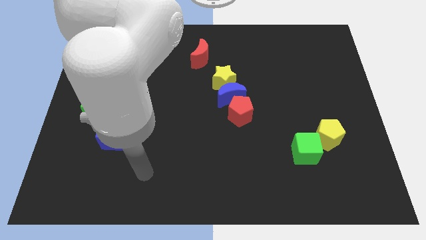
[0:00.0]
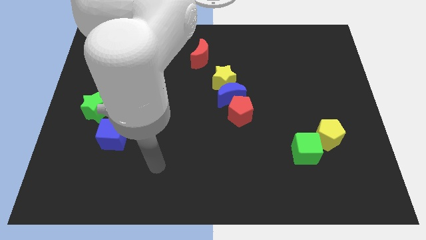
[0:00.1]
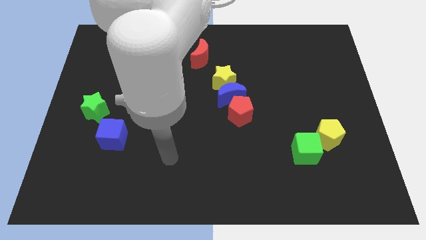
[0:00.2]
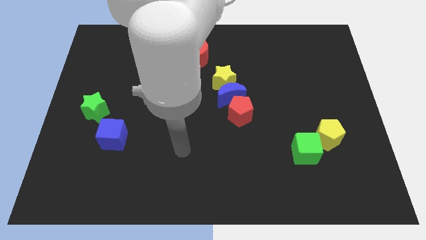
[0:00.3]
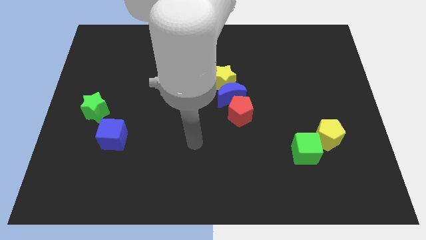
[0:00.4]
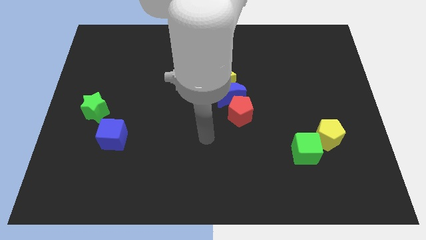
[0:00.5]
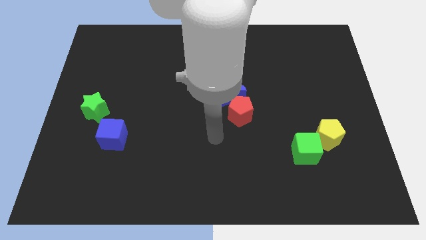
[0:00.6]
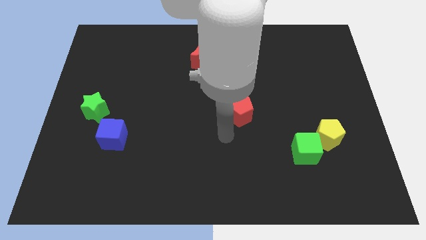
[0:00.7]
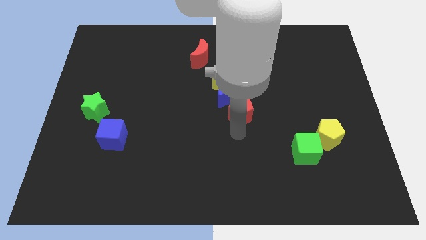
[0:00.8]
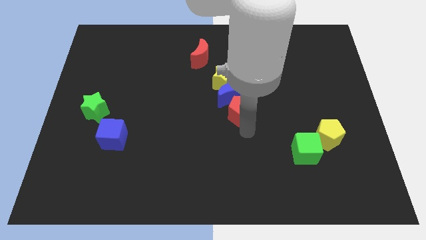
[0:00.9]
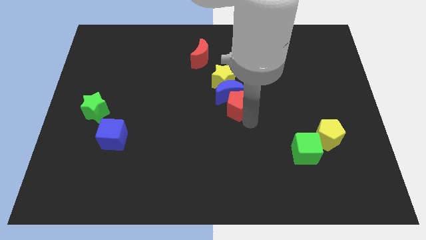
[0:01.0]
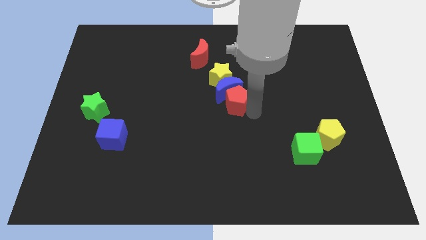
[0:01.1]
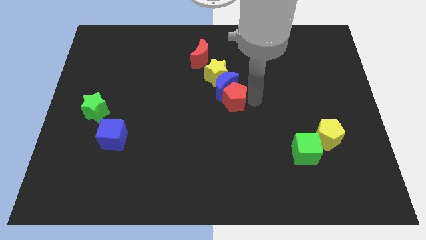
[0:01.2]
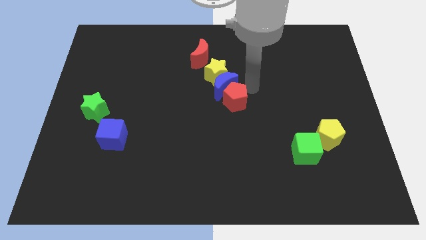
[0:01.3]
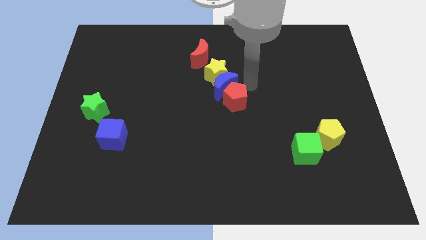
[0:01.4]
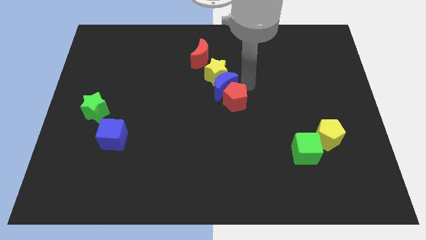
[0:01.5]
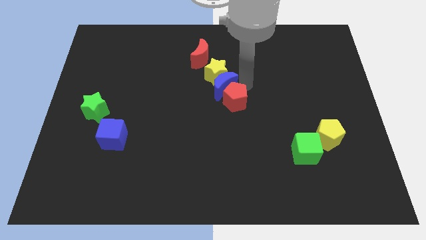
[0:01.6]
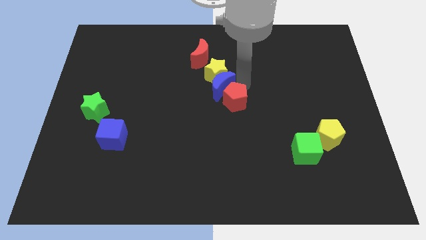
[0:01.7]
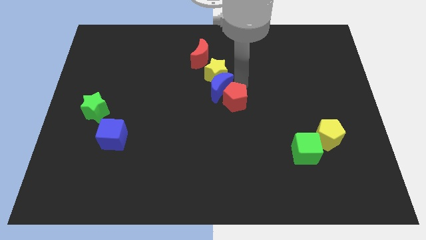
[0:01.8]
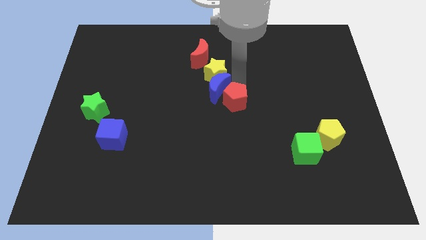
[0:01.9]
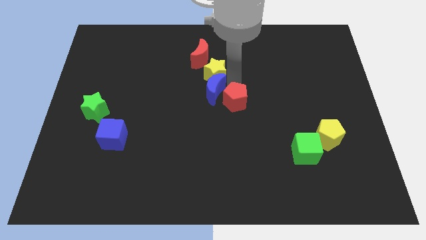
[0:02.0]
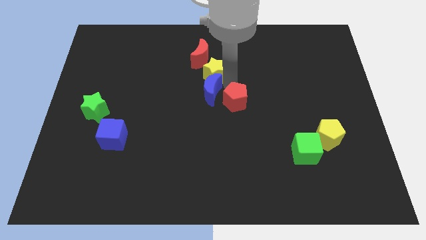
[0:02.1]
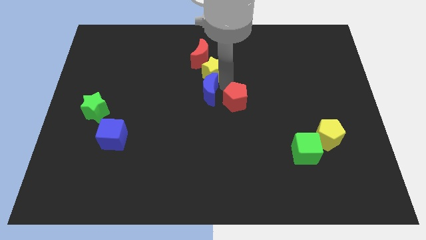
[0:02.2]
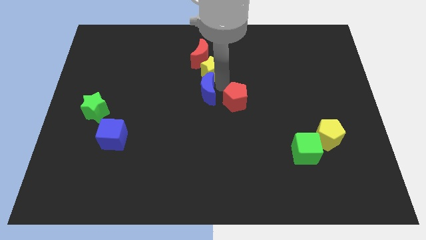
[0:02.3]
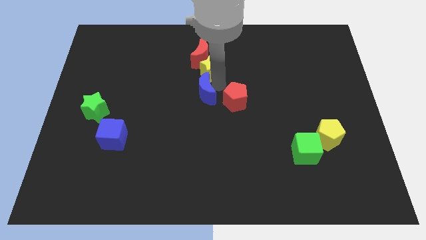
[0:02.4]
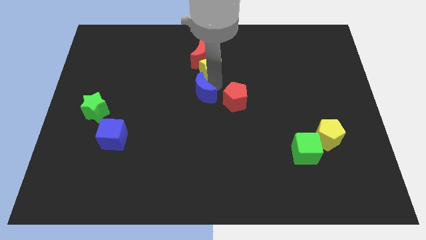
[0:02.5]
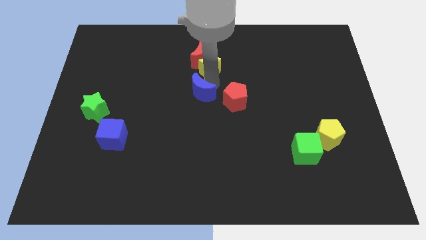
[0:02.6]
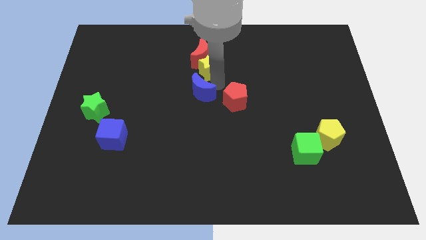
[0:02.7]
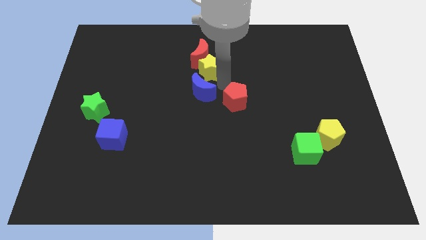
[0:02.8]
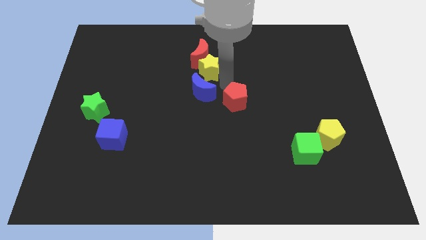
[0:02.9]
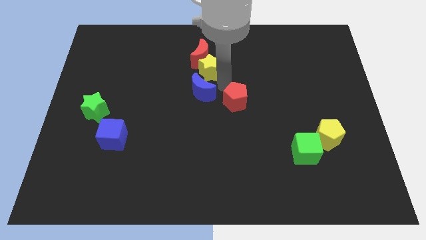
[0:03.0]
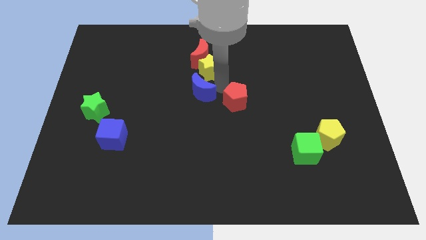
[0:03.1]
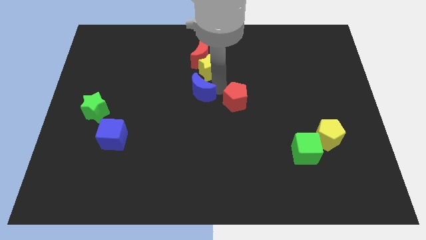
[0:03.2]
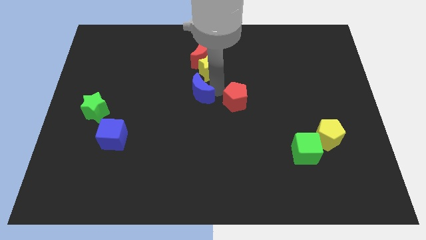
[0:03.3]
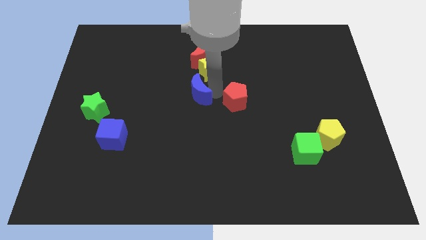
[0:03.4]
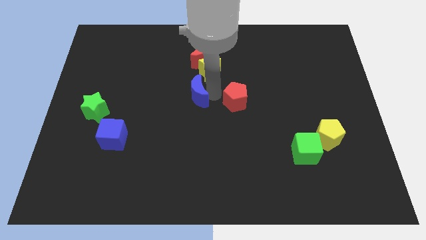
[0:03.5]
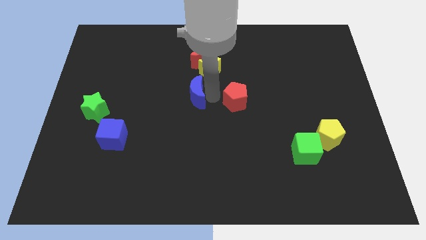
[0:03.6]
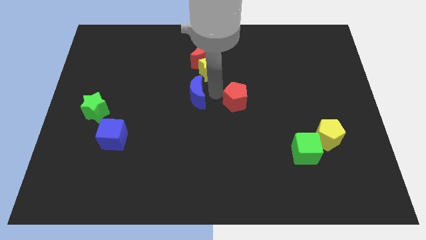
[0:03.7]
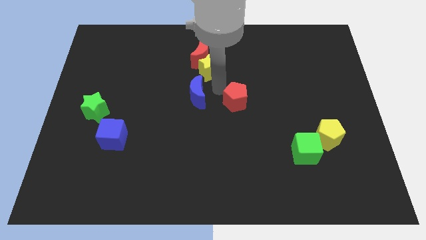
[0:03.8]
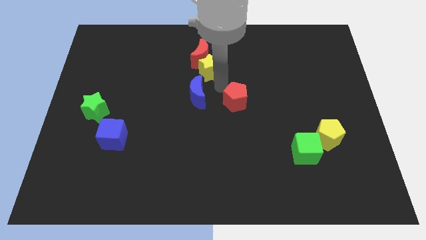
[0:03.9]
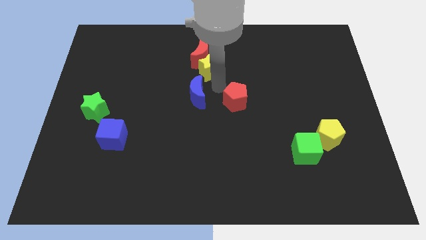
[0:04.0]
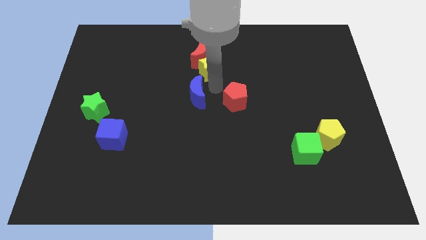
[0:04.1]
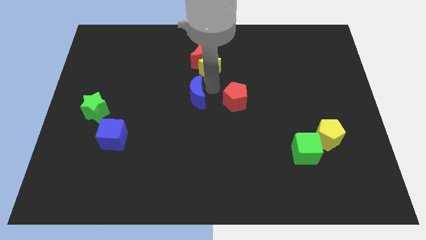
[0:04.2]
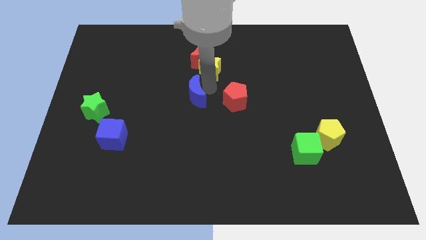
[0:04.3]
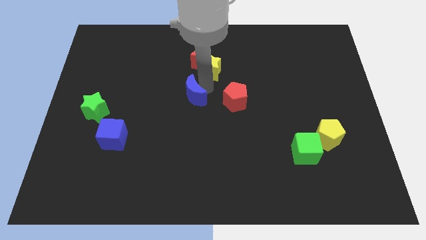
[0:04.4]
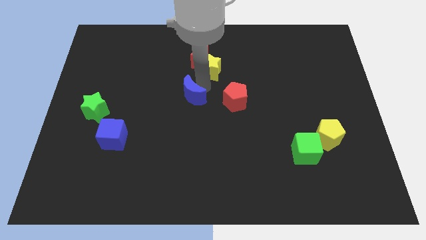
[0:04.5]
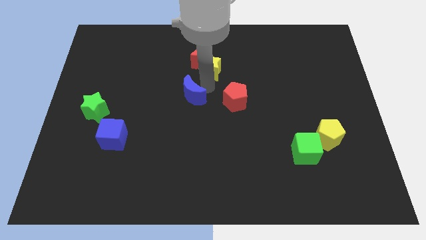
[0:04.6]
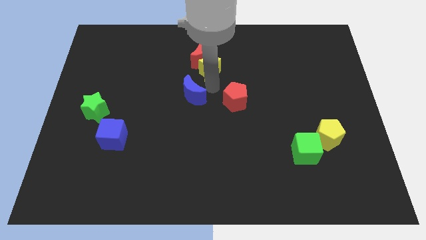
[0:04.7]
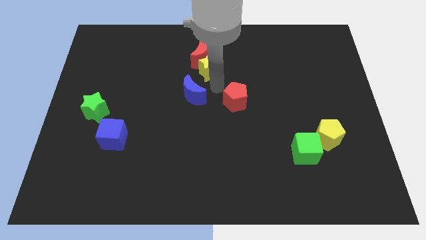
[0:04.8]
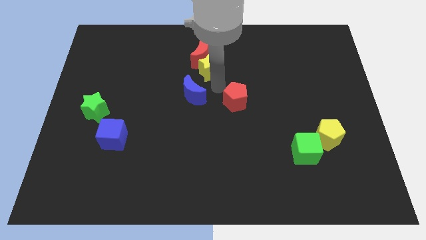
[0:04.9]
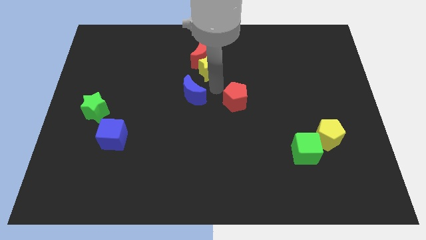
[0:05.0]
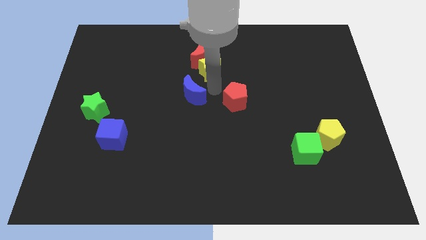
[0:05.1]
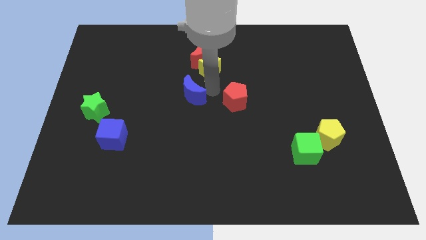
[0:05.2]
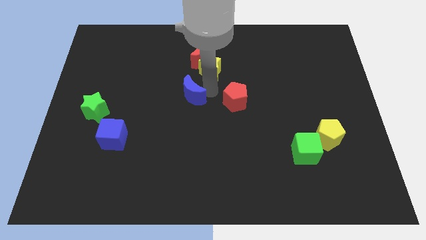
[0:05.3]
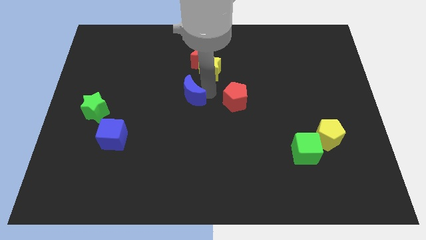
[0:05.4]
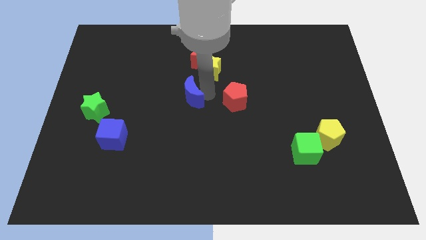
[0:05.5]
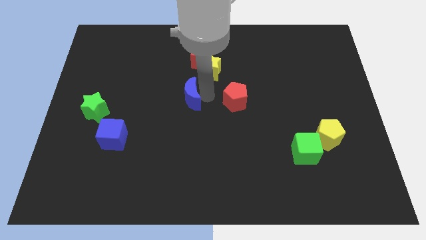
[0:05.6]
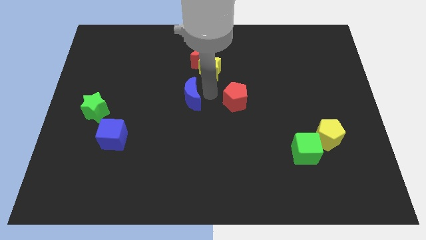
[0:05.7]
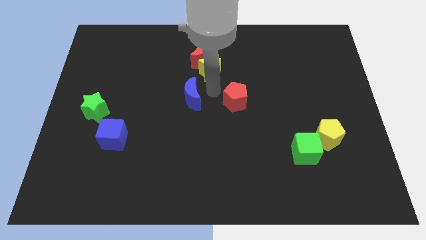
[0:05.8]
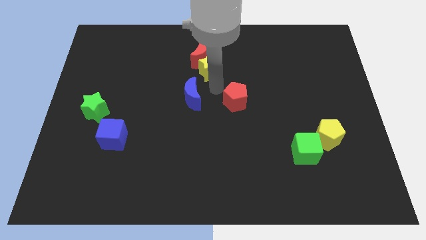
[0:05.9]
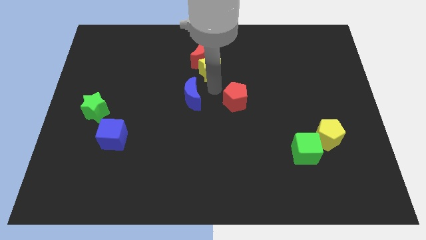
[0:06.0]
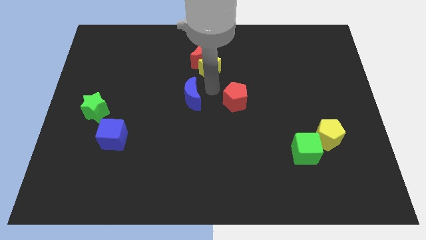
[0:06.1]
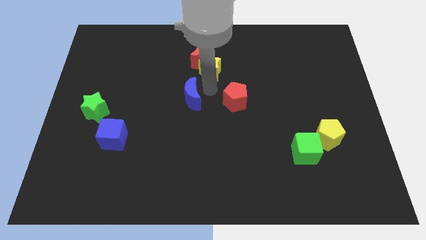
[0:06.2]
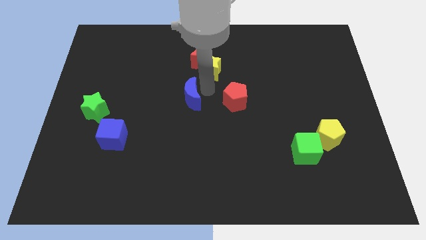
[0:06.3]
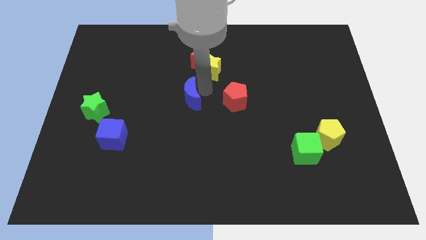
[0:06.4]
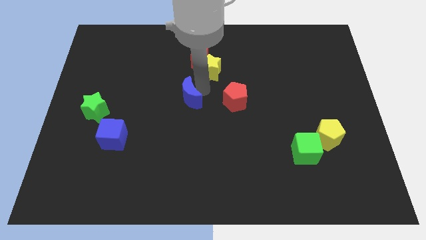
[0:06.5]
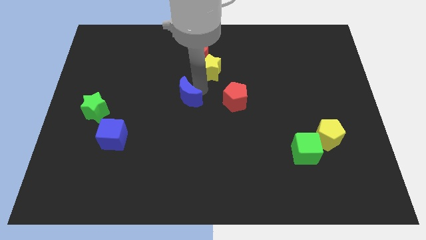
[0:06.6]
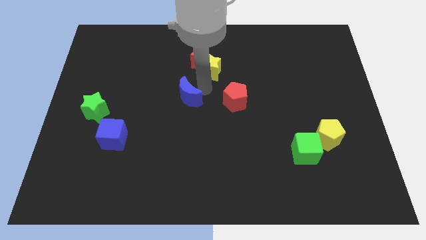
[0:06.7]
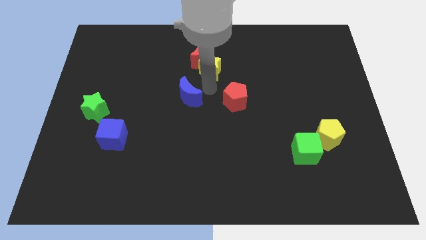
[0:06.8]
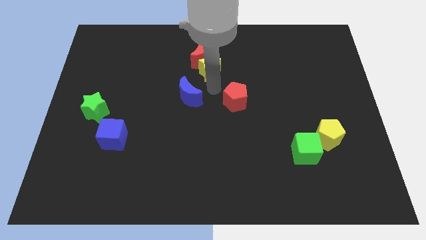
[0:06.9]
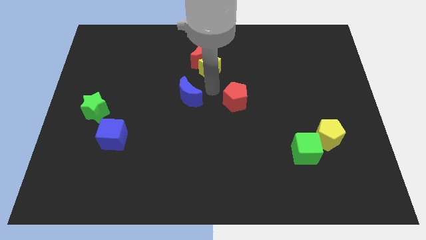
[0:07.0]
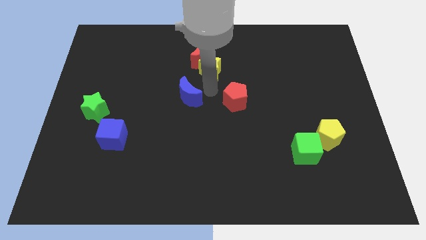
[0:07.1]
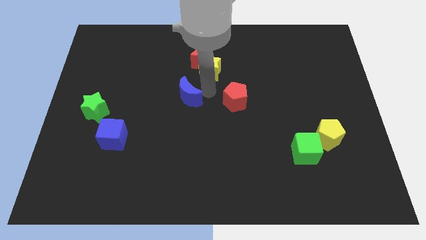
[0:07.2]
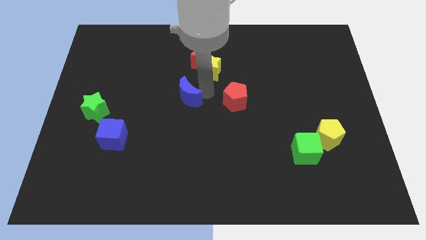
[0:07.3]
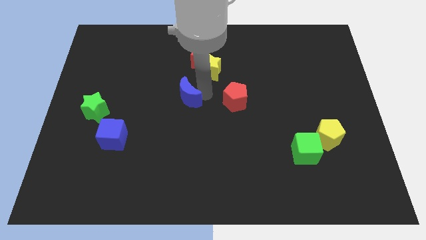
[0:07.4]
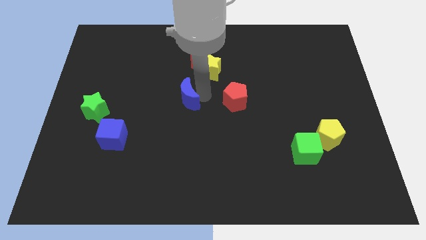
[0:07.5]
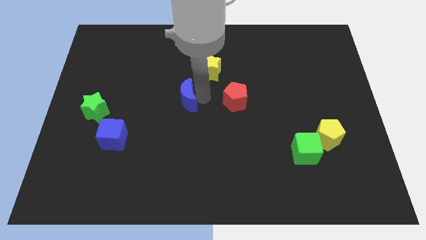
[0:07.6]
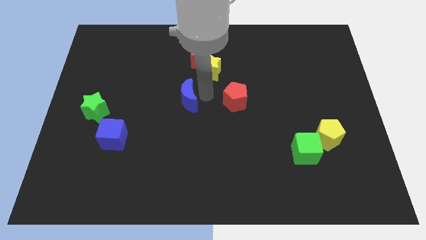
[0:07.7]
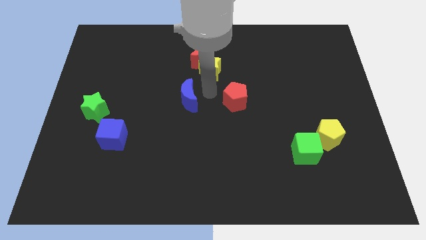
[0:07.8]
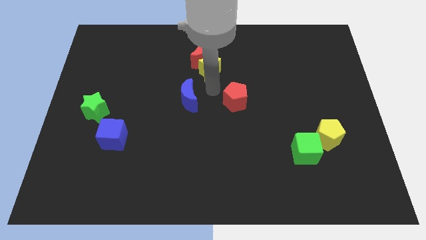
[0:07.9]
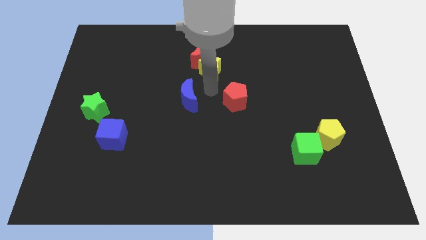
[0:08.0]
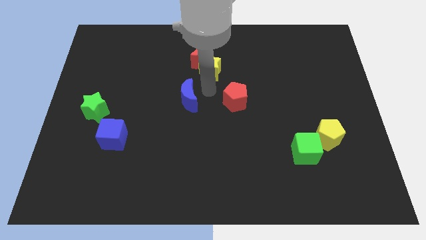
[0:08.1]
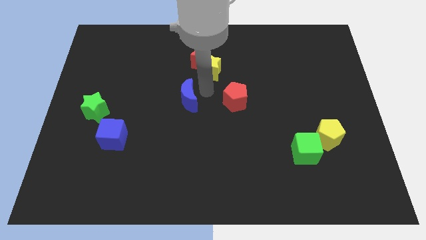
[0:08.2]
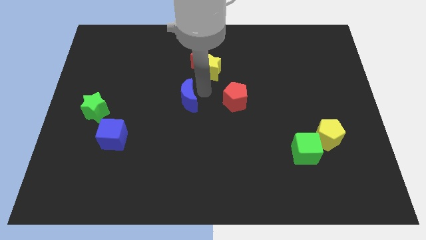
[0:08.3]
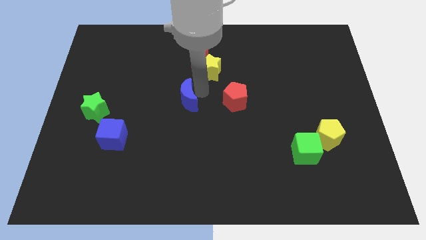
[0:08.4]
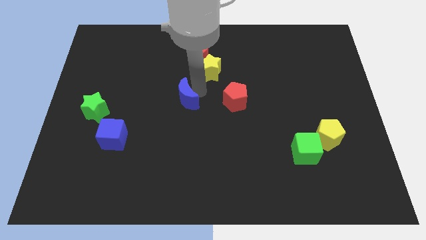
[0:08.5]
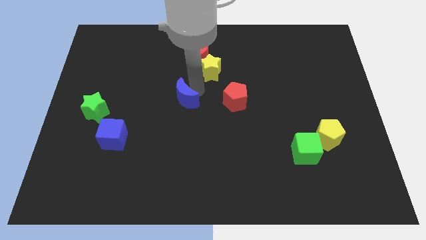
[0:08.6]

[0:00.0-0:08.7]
pull the blue moon apart from the yellow star and red pentagon

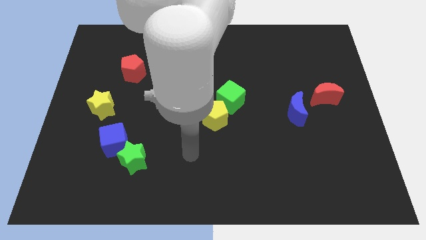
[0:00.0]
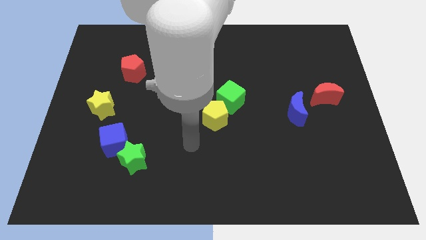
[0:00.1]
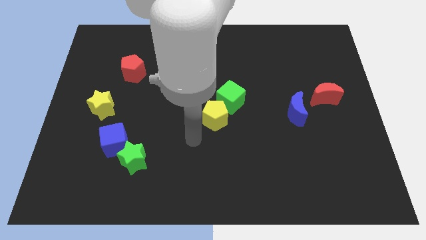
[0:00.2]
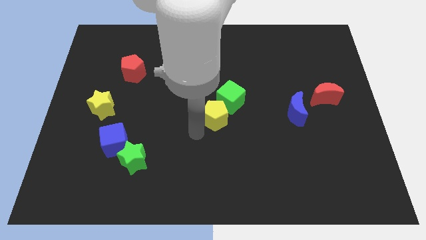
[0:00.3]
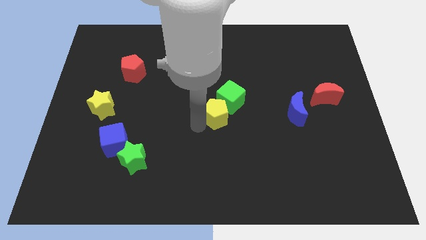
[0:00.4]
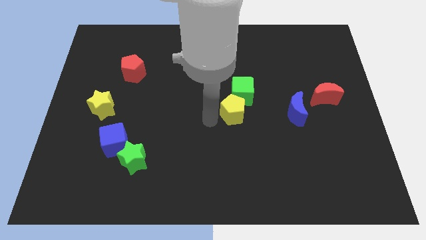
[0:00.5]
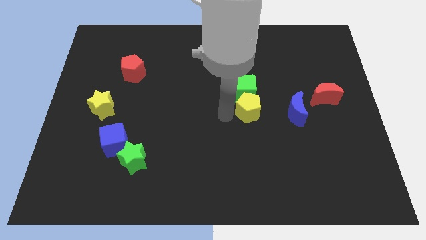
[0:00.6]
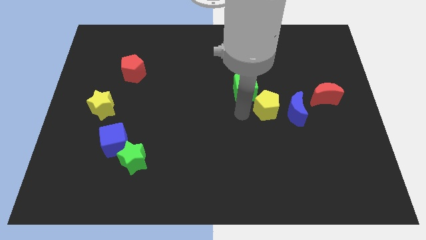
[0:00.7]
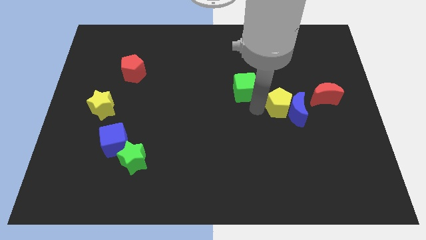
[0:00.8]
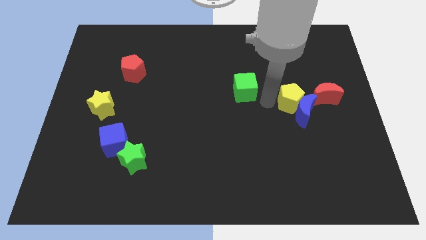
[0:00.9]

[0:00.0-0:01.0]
separate the green cube from the yellow pentagon
